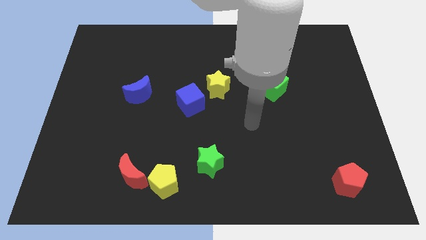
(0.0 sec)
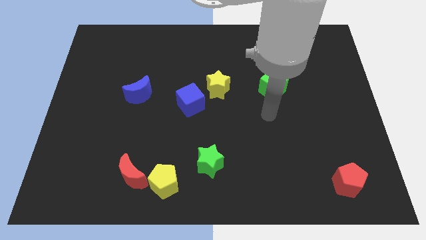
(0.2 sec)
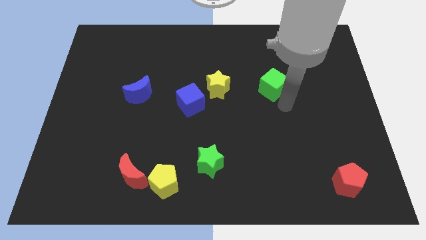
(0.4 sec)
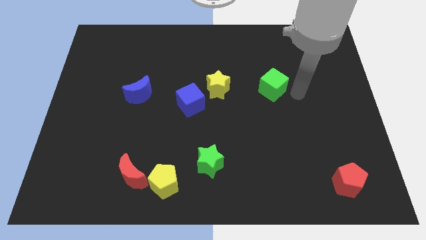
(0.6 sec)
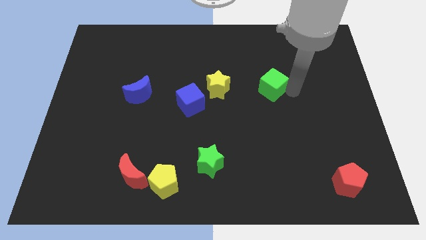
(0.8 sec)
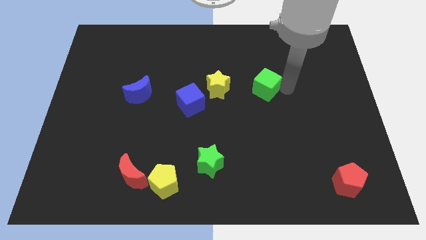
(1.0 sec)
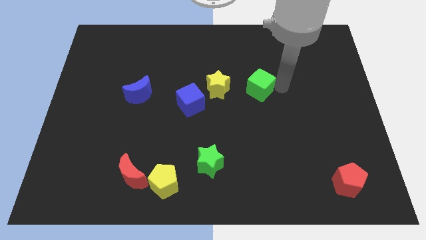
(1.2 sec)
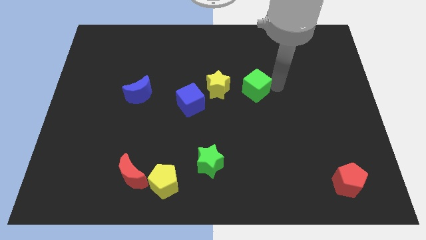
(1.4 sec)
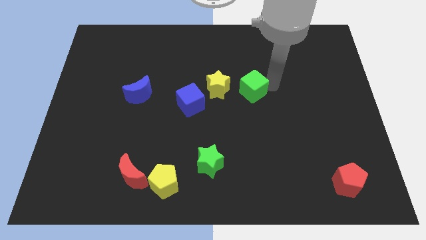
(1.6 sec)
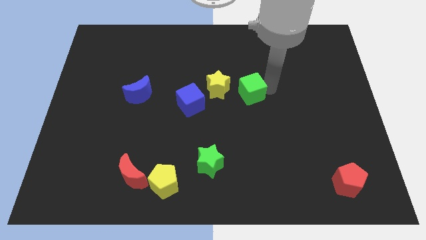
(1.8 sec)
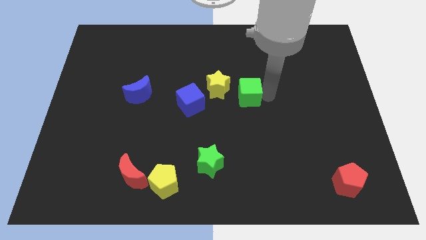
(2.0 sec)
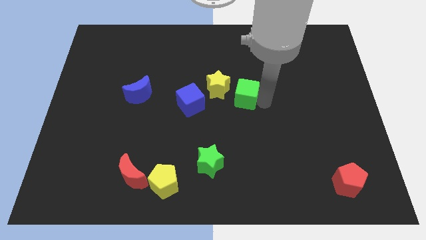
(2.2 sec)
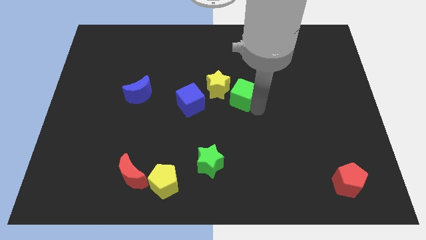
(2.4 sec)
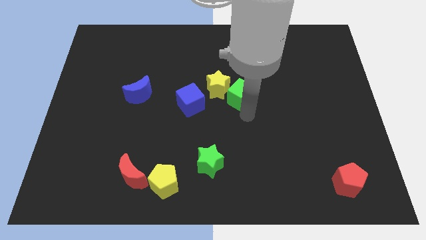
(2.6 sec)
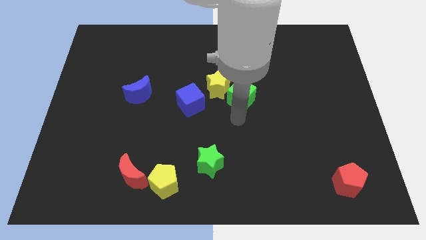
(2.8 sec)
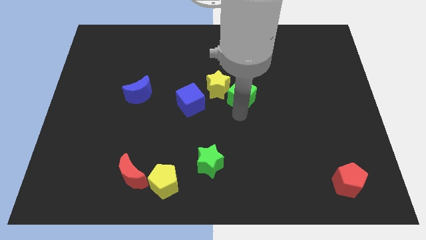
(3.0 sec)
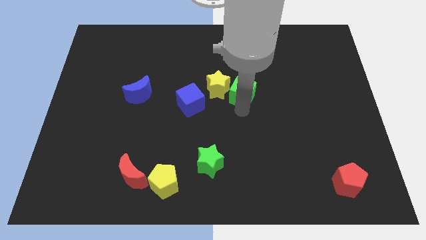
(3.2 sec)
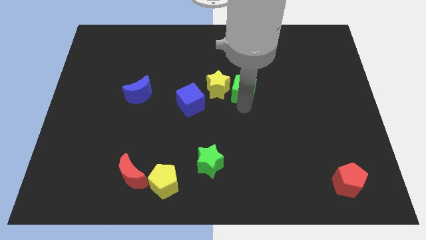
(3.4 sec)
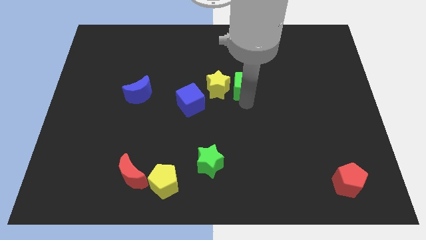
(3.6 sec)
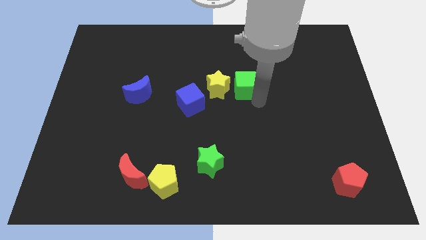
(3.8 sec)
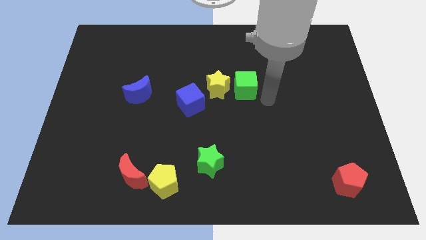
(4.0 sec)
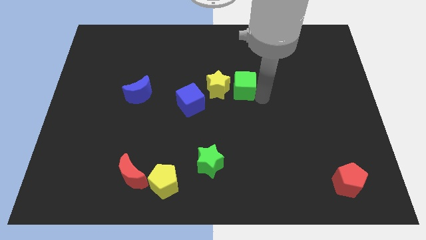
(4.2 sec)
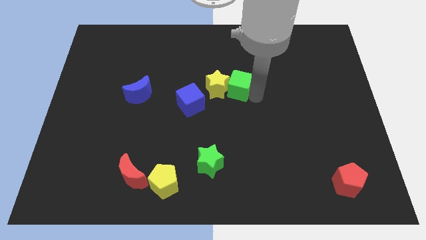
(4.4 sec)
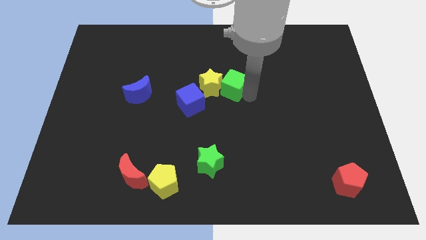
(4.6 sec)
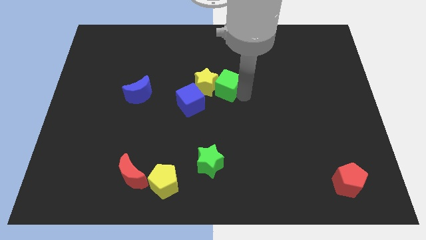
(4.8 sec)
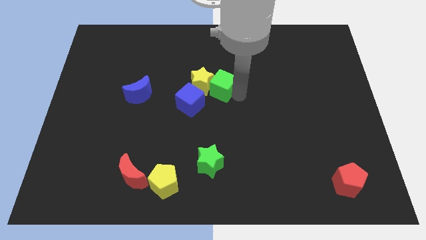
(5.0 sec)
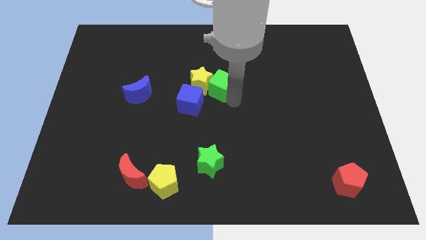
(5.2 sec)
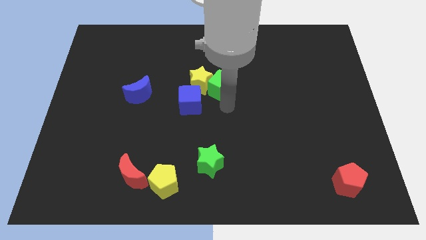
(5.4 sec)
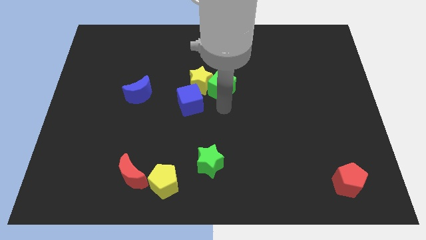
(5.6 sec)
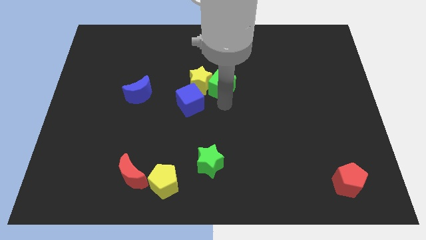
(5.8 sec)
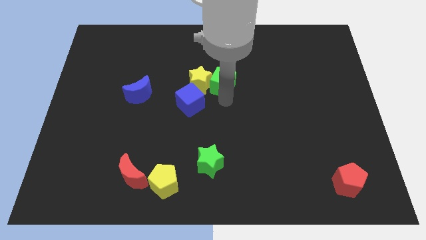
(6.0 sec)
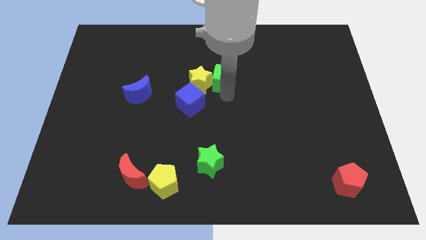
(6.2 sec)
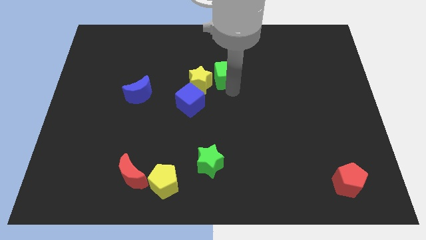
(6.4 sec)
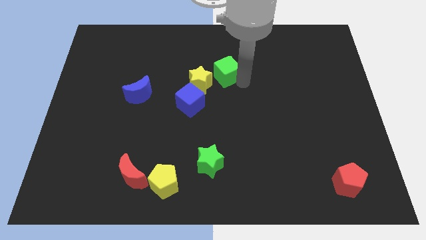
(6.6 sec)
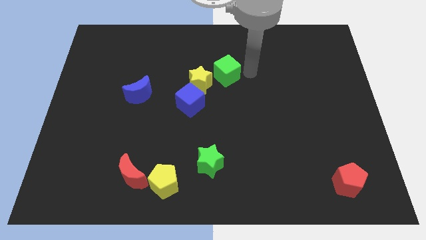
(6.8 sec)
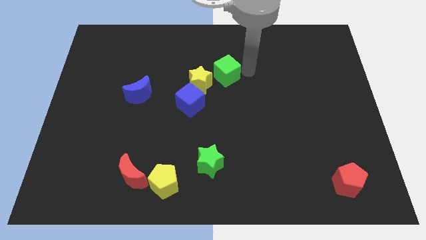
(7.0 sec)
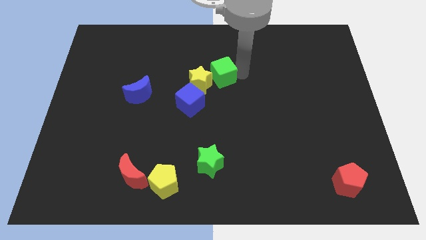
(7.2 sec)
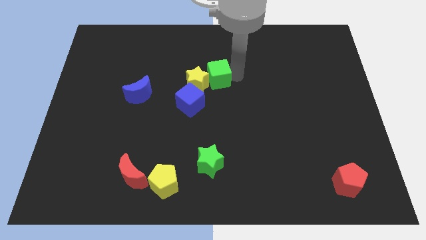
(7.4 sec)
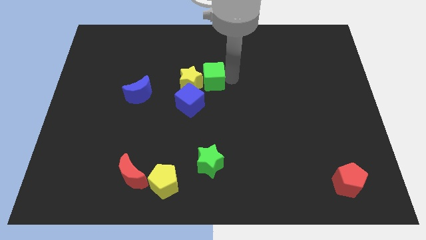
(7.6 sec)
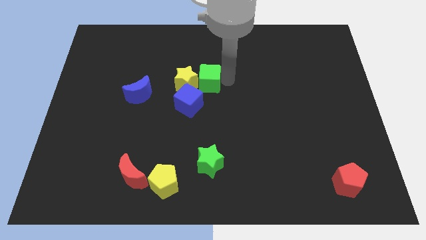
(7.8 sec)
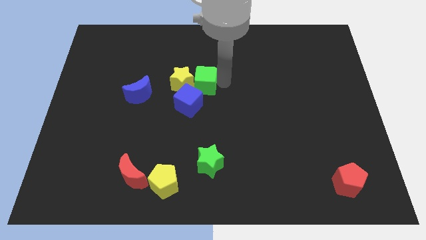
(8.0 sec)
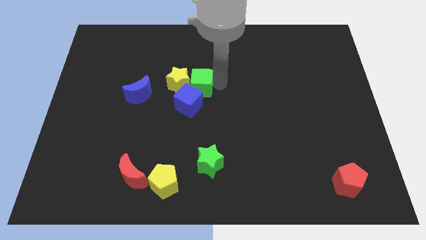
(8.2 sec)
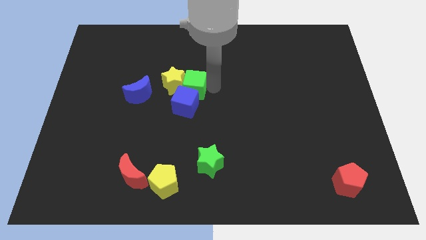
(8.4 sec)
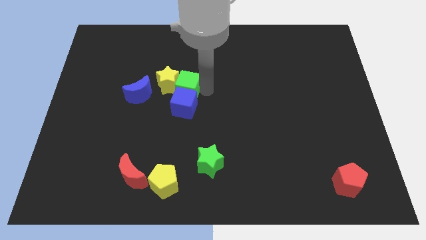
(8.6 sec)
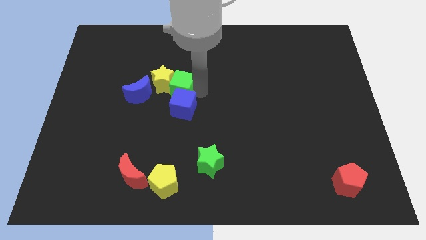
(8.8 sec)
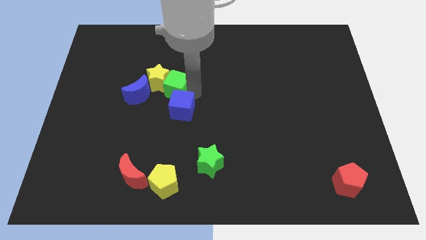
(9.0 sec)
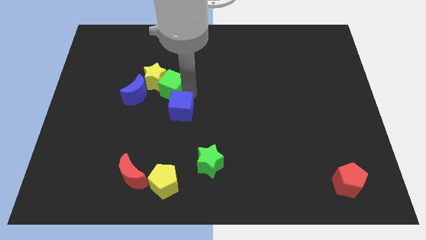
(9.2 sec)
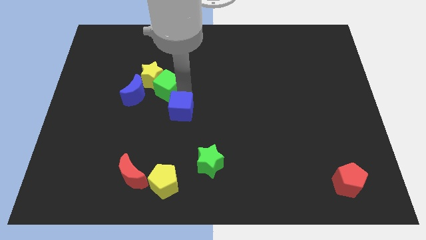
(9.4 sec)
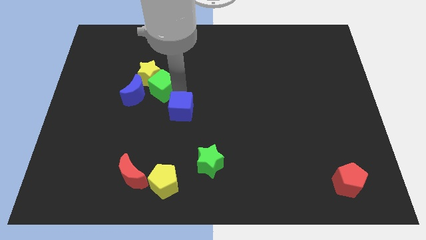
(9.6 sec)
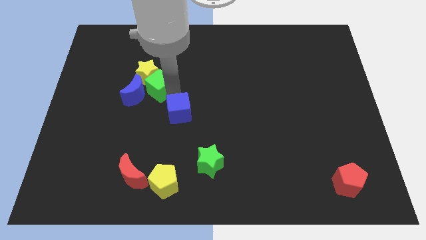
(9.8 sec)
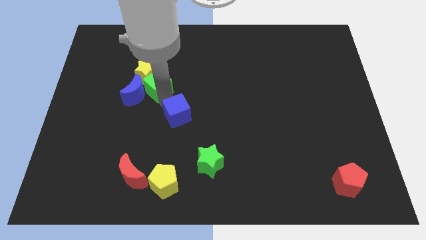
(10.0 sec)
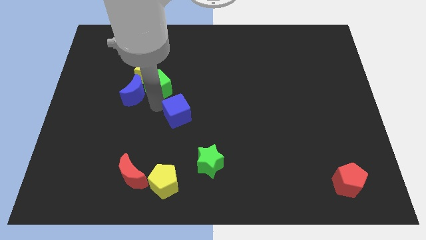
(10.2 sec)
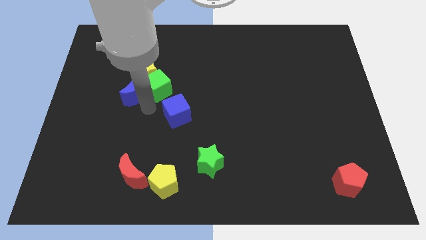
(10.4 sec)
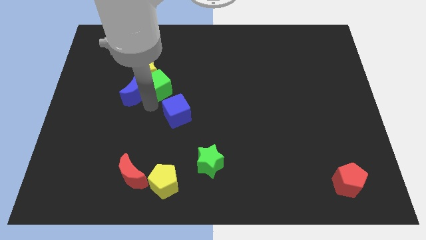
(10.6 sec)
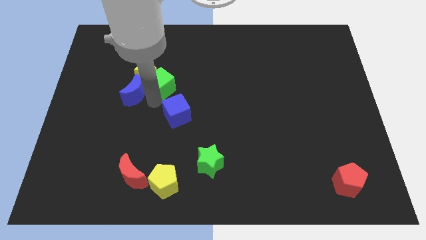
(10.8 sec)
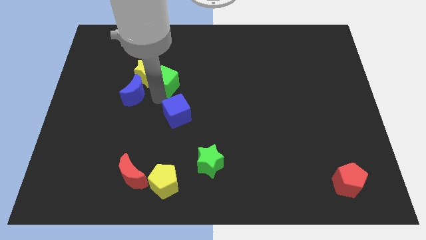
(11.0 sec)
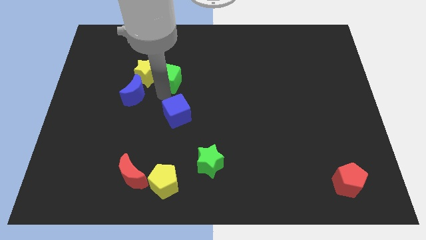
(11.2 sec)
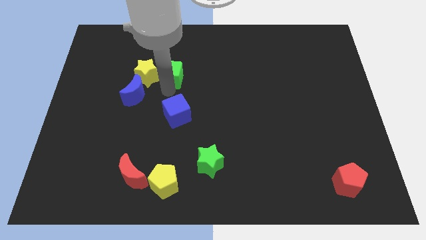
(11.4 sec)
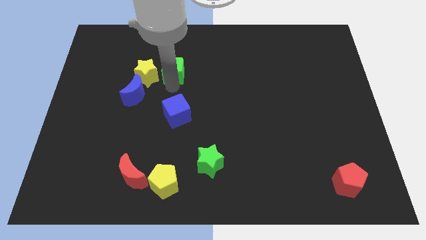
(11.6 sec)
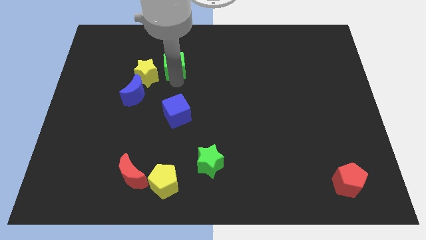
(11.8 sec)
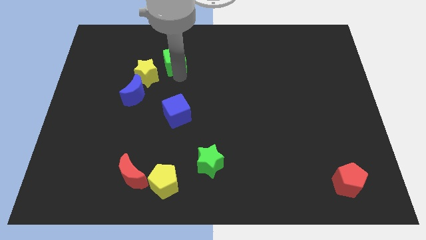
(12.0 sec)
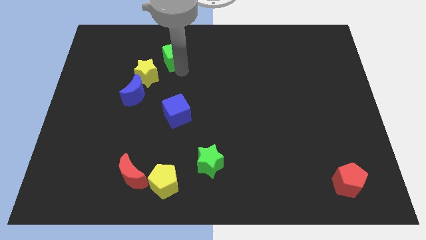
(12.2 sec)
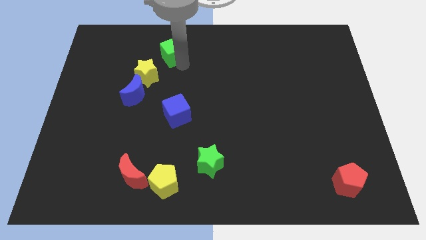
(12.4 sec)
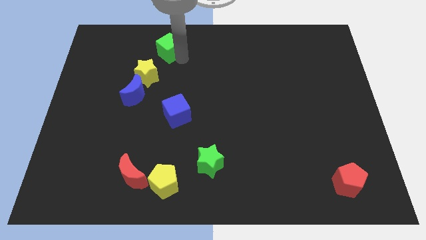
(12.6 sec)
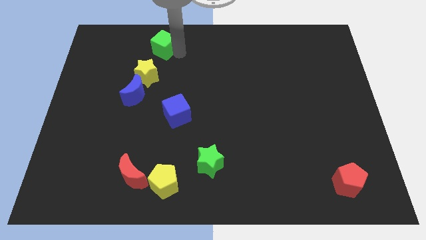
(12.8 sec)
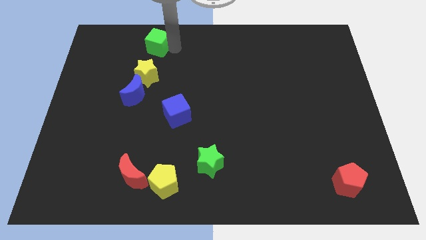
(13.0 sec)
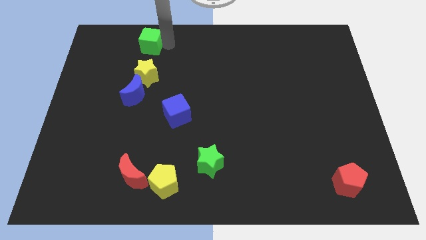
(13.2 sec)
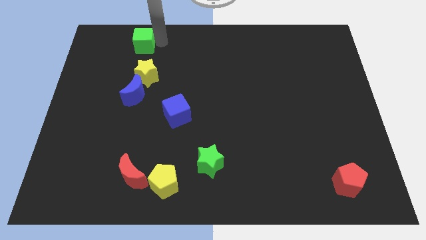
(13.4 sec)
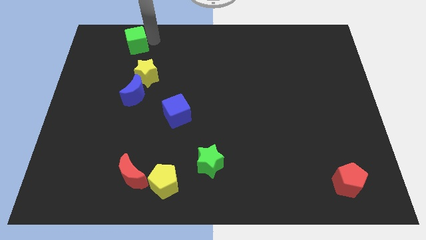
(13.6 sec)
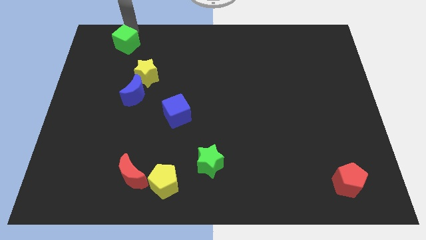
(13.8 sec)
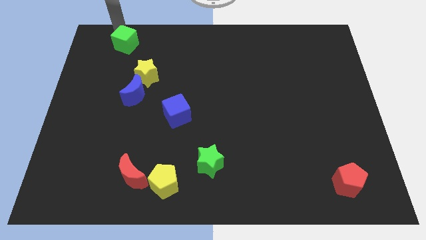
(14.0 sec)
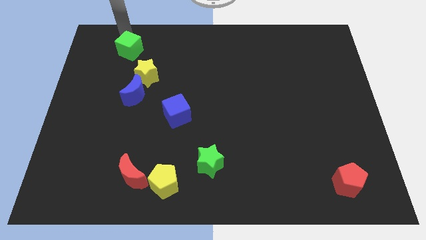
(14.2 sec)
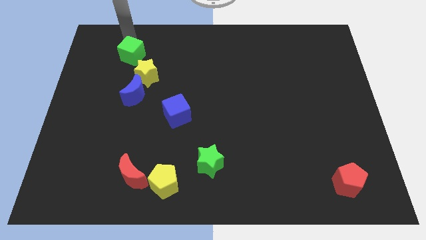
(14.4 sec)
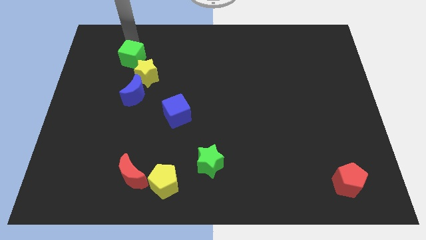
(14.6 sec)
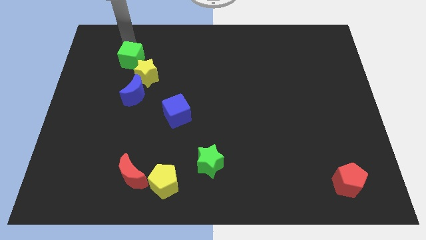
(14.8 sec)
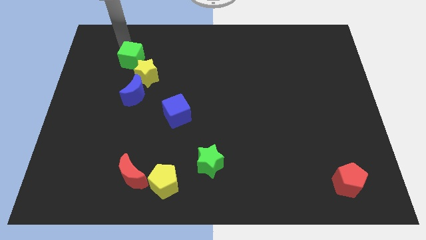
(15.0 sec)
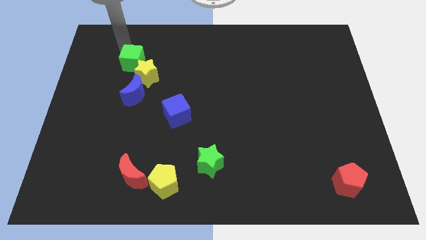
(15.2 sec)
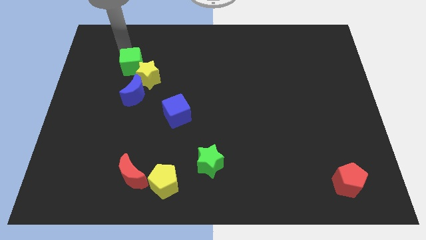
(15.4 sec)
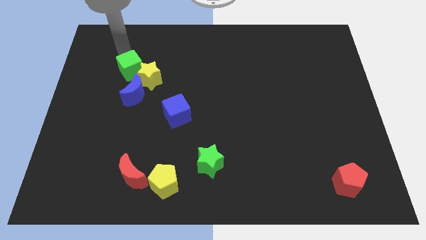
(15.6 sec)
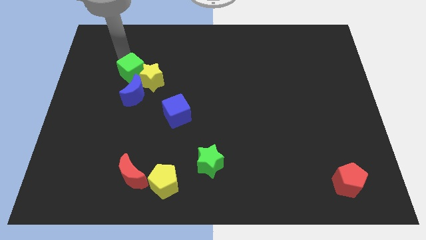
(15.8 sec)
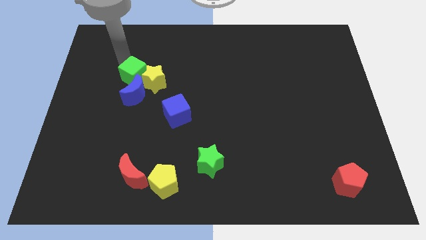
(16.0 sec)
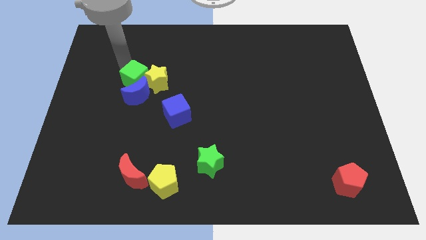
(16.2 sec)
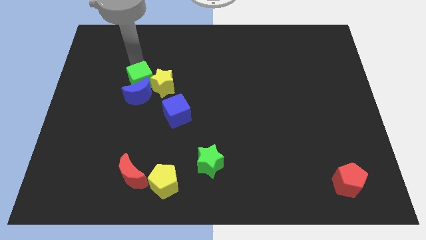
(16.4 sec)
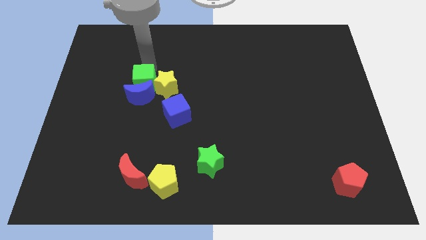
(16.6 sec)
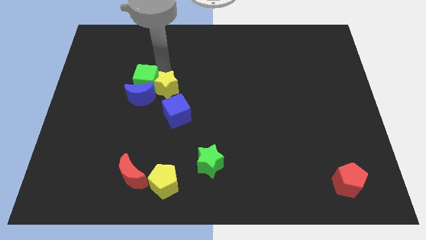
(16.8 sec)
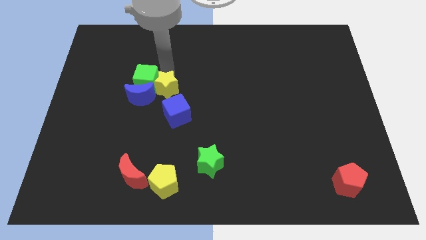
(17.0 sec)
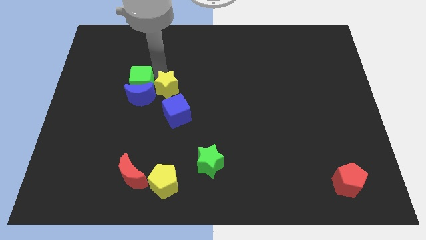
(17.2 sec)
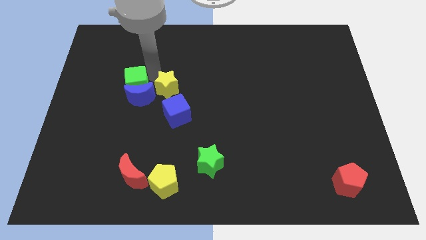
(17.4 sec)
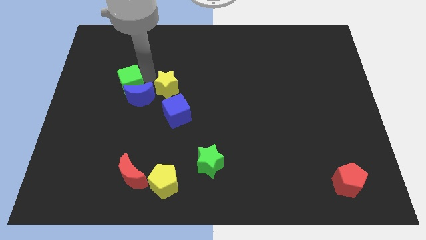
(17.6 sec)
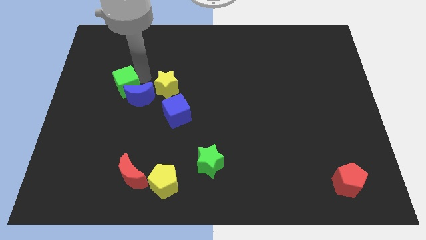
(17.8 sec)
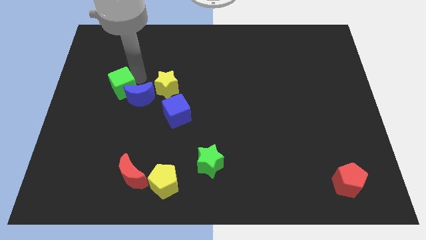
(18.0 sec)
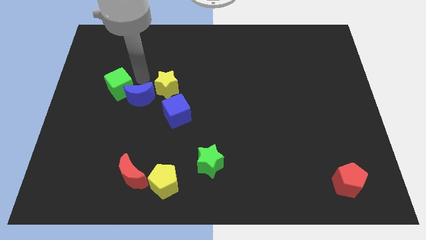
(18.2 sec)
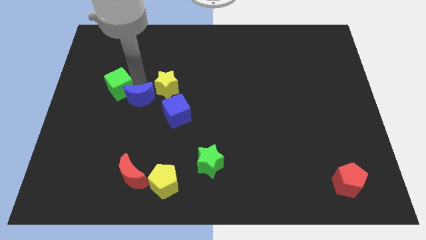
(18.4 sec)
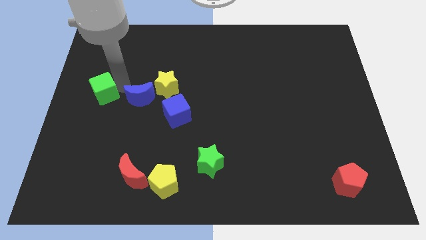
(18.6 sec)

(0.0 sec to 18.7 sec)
push the green cube to the left side
